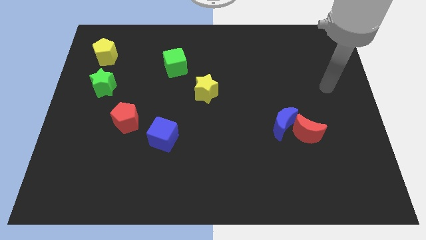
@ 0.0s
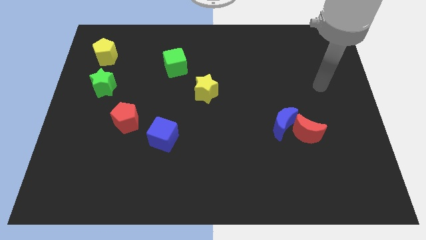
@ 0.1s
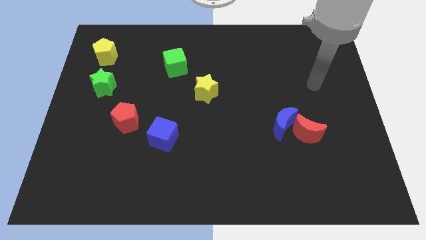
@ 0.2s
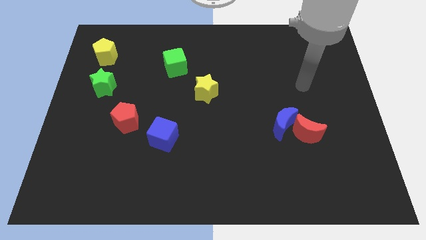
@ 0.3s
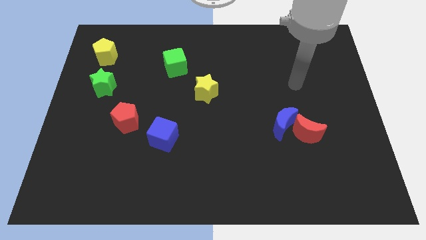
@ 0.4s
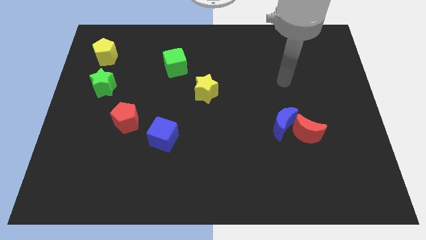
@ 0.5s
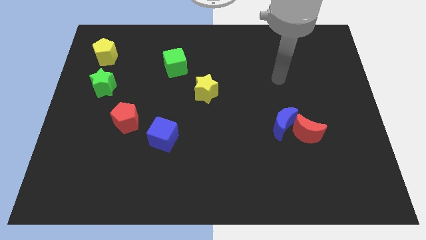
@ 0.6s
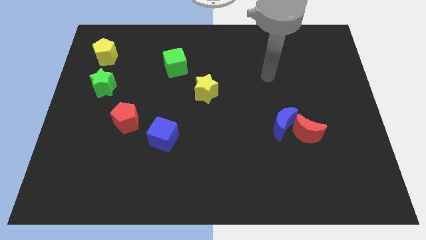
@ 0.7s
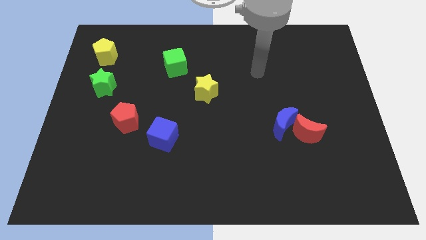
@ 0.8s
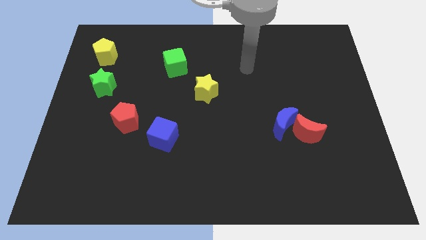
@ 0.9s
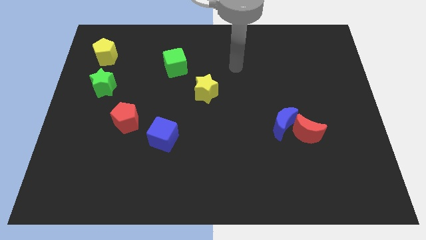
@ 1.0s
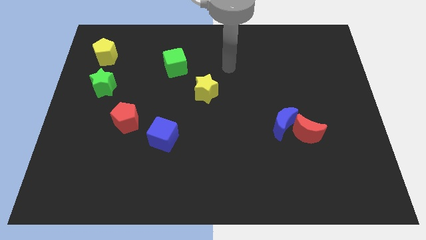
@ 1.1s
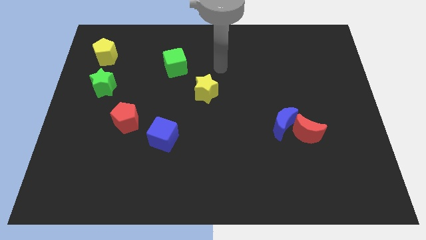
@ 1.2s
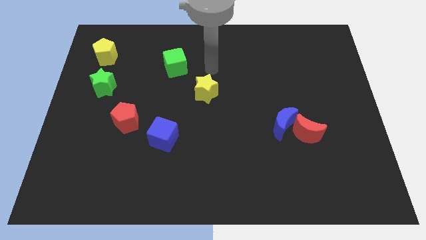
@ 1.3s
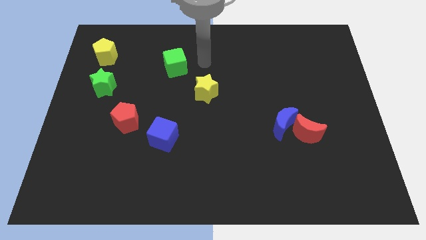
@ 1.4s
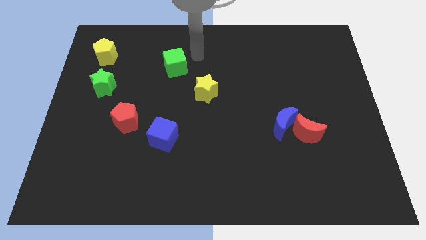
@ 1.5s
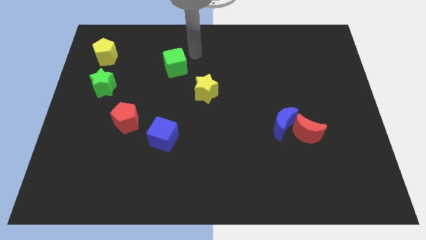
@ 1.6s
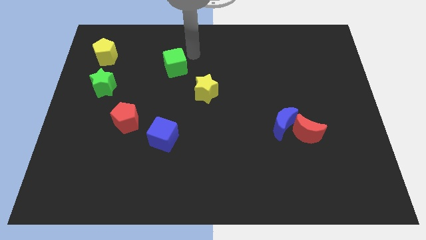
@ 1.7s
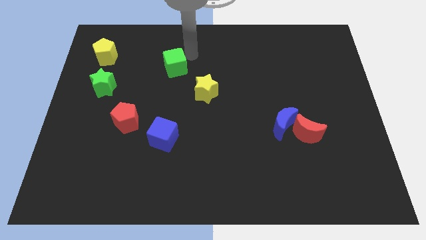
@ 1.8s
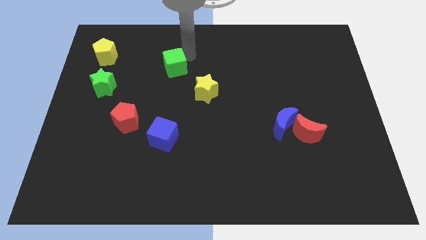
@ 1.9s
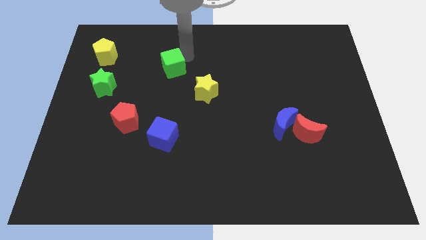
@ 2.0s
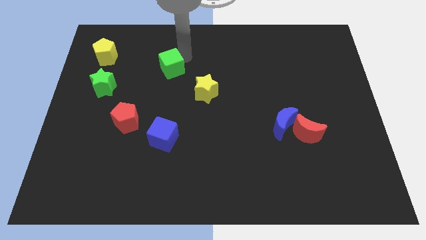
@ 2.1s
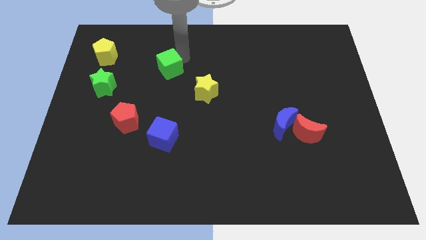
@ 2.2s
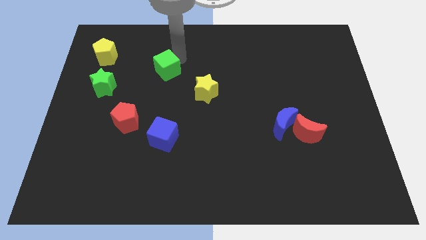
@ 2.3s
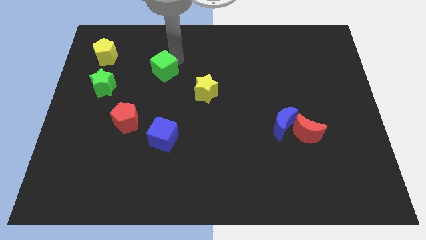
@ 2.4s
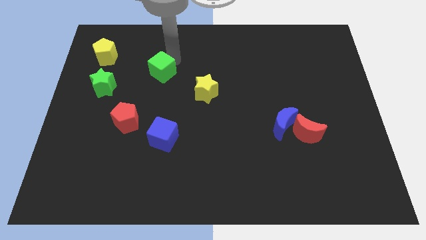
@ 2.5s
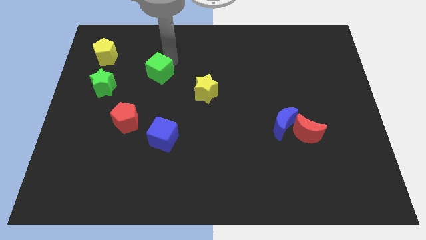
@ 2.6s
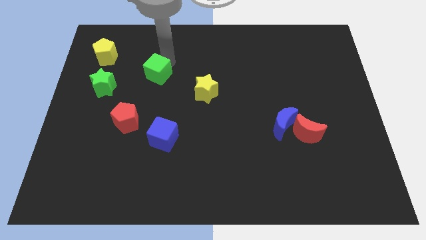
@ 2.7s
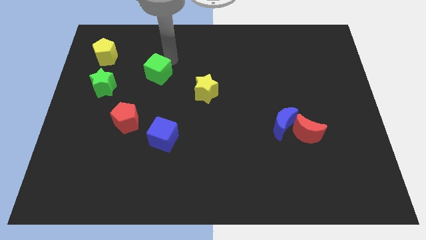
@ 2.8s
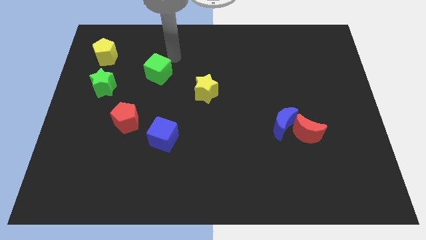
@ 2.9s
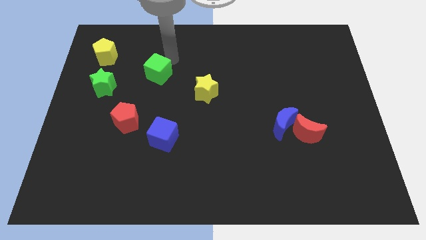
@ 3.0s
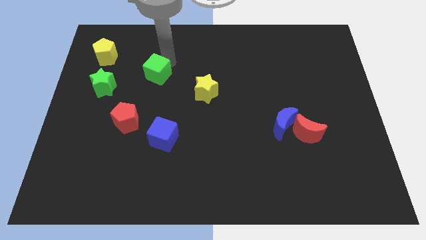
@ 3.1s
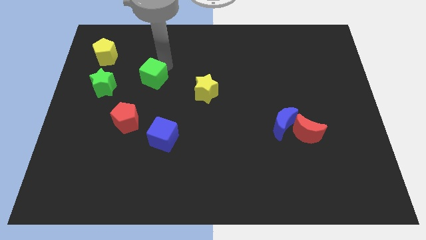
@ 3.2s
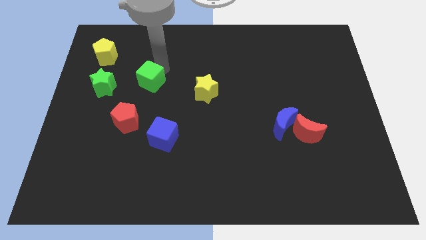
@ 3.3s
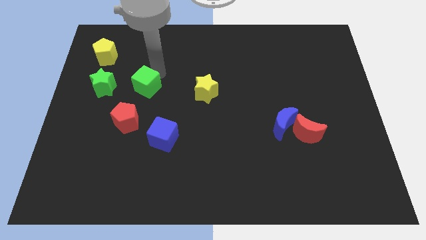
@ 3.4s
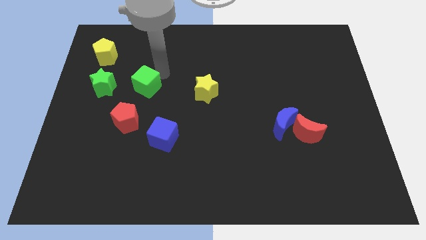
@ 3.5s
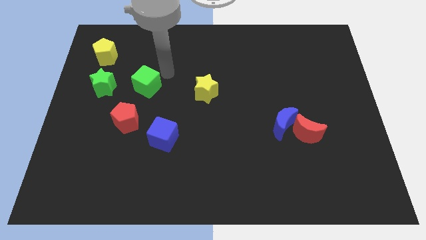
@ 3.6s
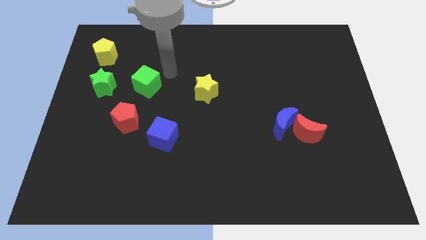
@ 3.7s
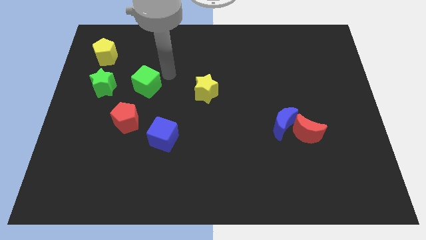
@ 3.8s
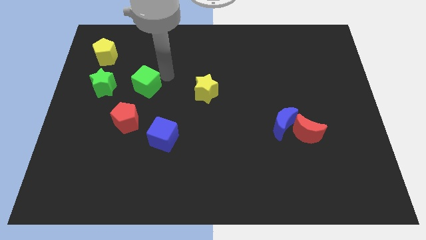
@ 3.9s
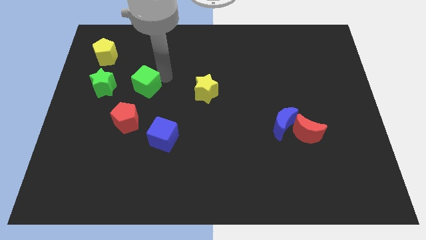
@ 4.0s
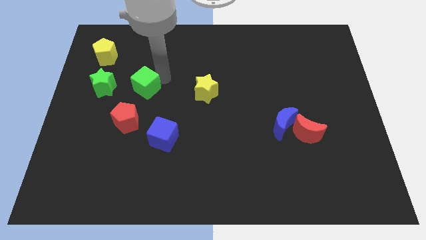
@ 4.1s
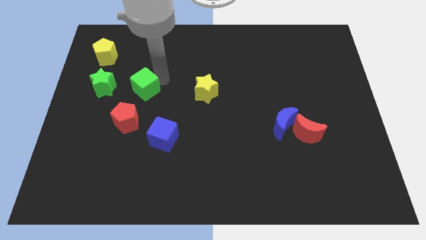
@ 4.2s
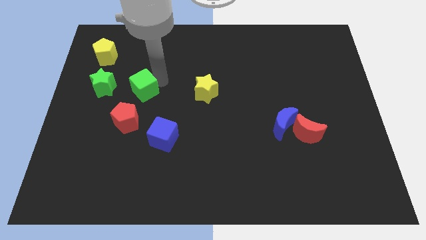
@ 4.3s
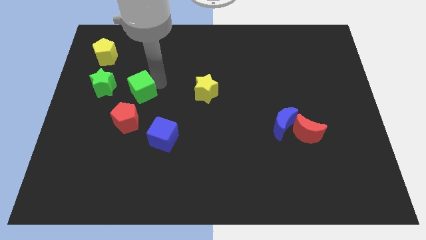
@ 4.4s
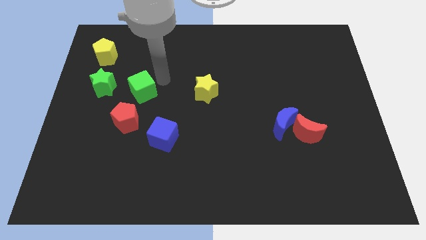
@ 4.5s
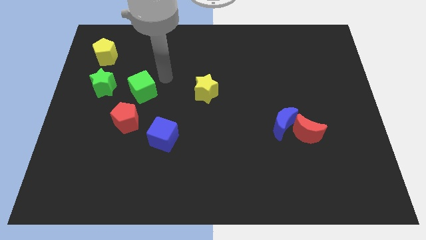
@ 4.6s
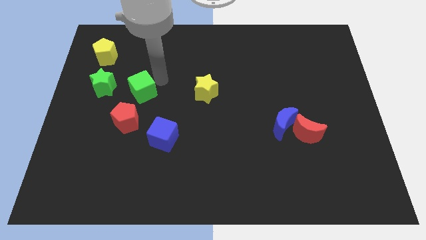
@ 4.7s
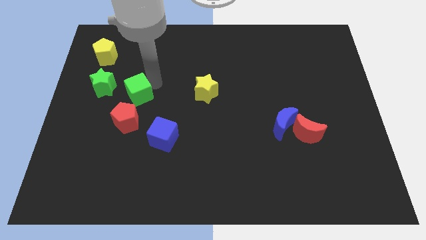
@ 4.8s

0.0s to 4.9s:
push the green cube diagonally down and to the right of the green star

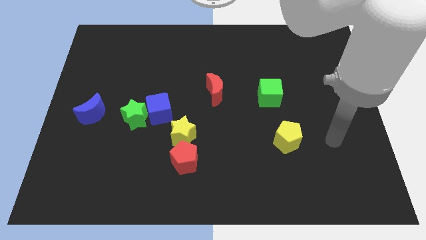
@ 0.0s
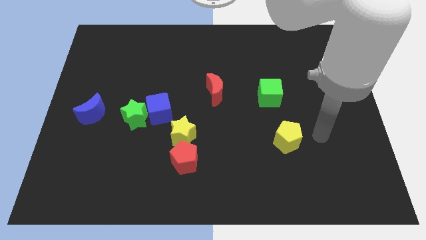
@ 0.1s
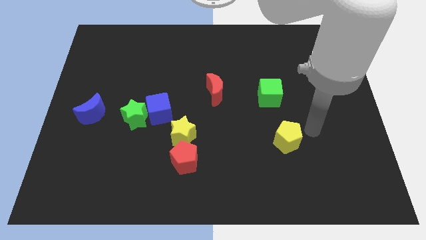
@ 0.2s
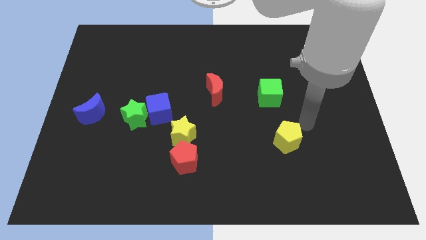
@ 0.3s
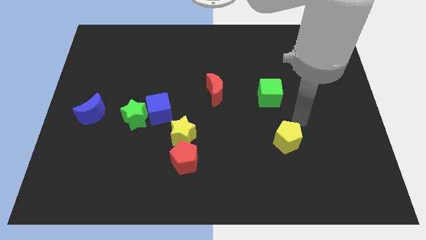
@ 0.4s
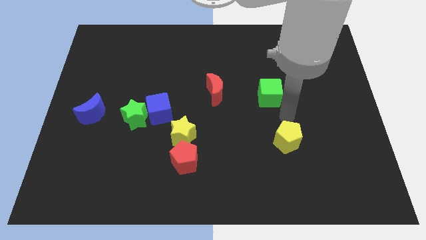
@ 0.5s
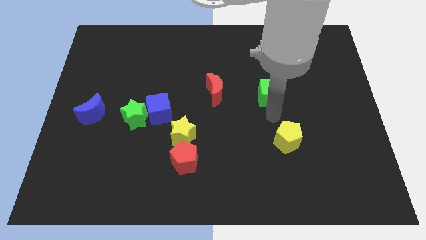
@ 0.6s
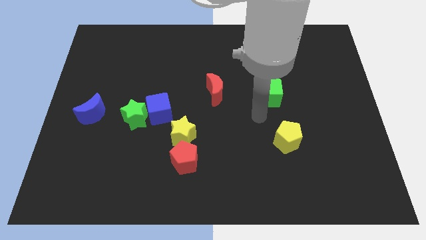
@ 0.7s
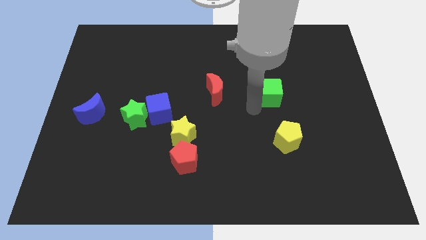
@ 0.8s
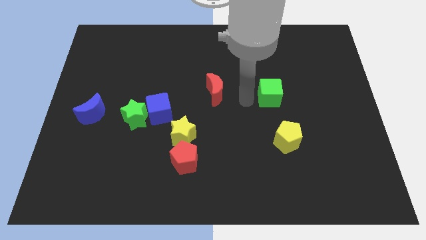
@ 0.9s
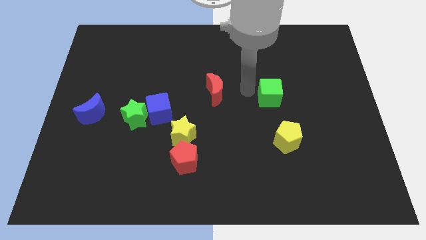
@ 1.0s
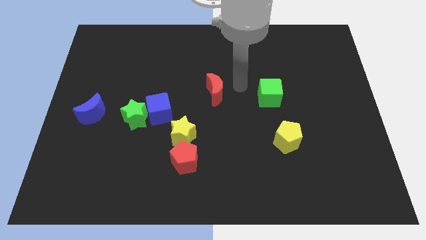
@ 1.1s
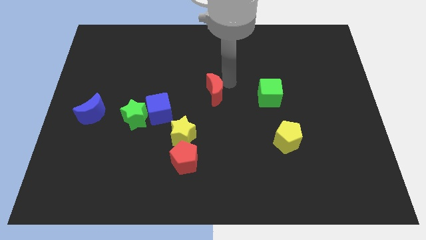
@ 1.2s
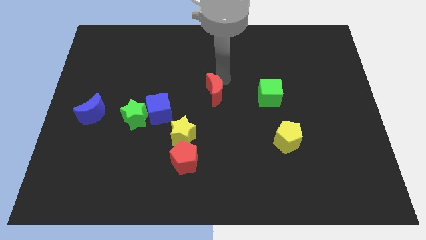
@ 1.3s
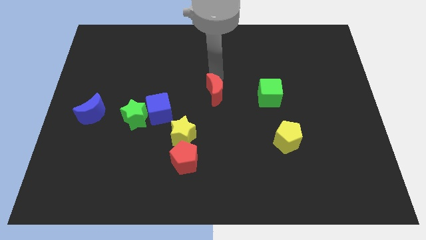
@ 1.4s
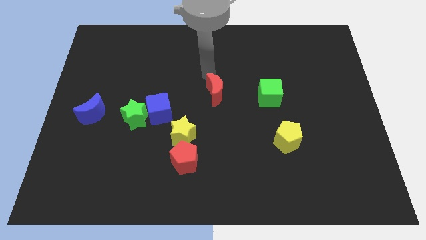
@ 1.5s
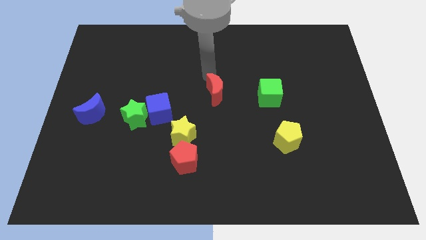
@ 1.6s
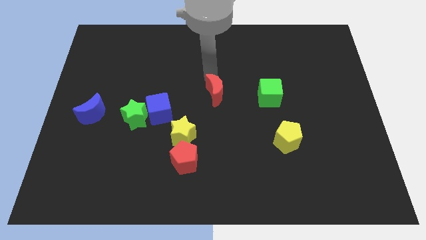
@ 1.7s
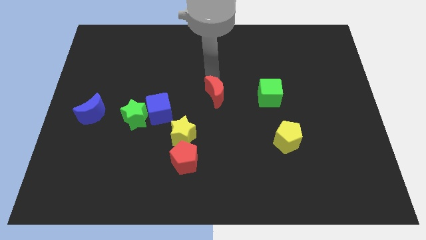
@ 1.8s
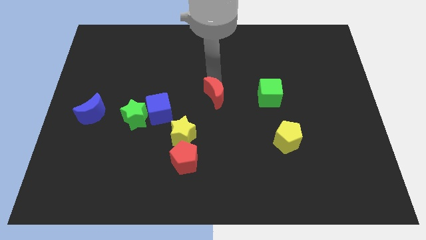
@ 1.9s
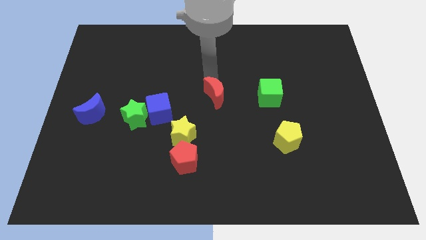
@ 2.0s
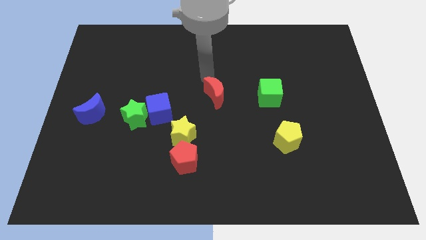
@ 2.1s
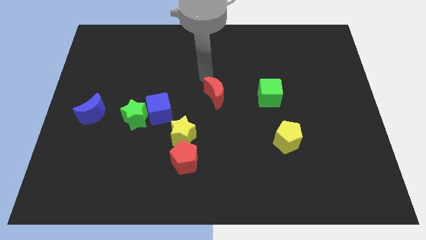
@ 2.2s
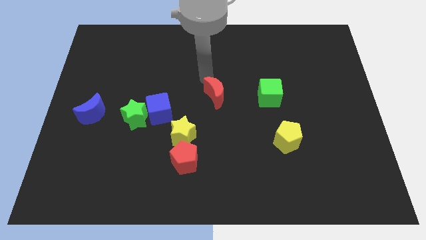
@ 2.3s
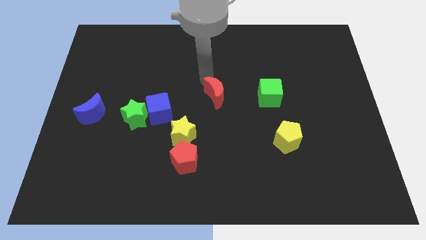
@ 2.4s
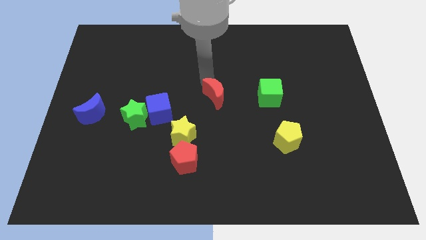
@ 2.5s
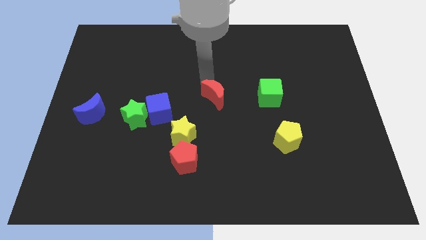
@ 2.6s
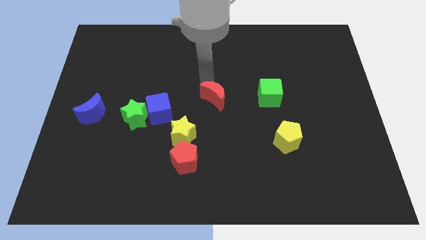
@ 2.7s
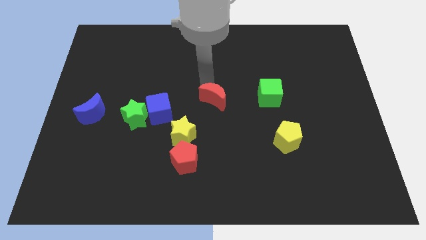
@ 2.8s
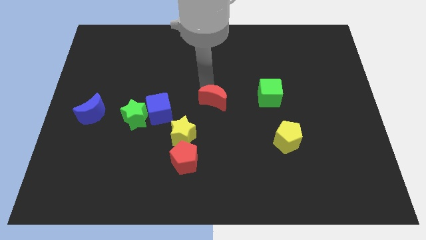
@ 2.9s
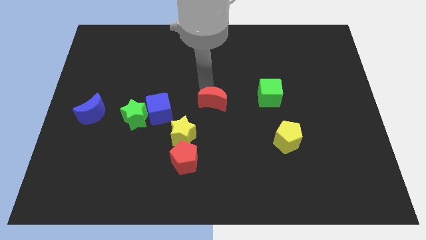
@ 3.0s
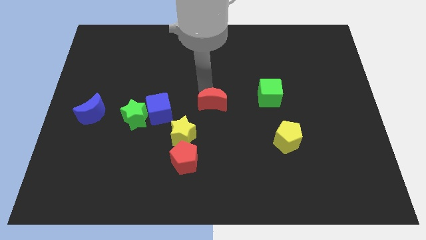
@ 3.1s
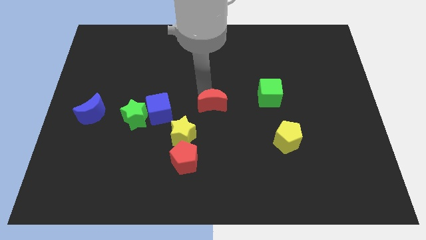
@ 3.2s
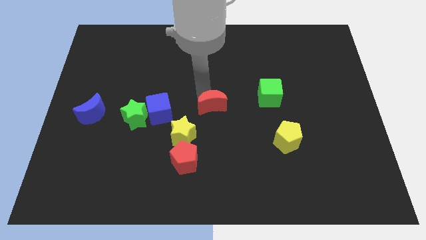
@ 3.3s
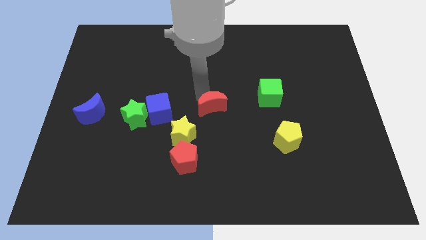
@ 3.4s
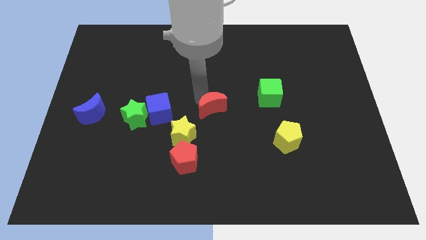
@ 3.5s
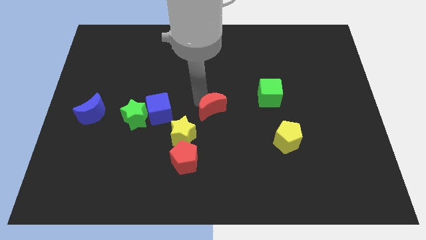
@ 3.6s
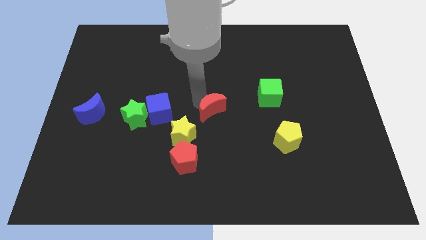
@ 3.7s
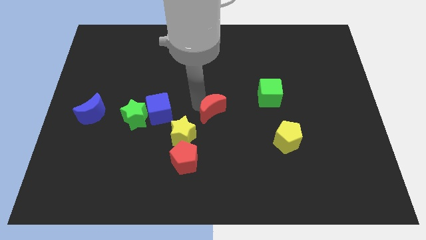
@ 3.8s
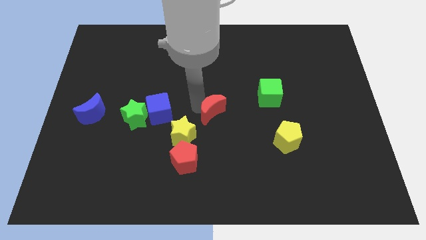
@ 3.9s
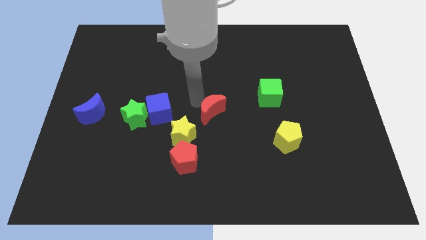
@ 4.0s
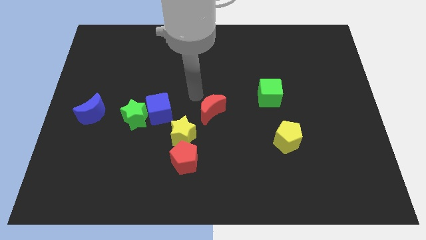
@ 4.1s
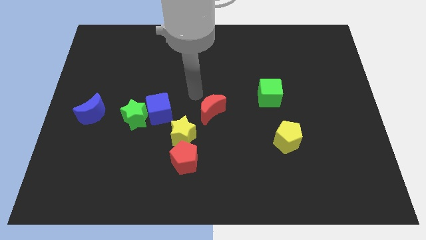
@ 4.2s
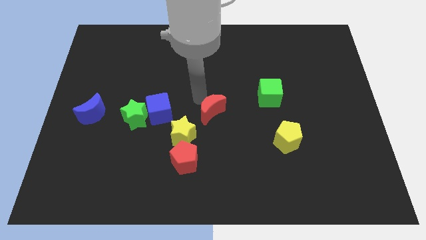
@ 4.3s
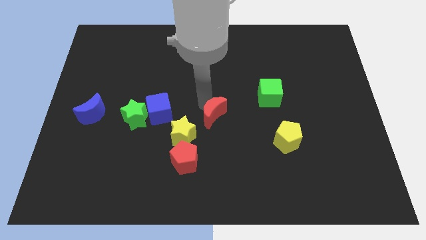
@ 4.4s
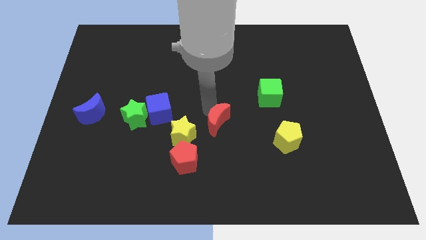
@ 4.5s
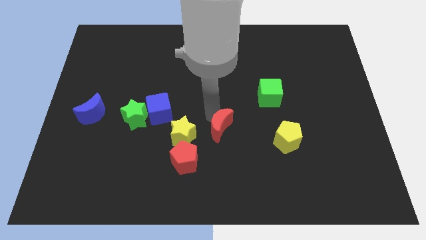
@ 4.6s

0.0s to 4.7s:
put the red moon just left of the yellow pentagon
